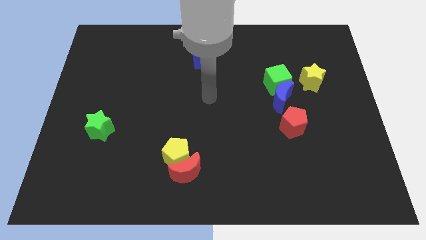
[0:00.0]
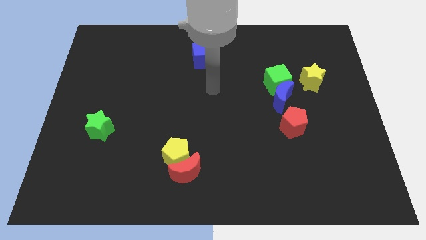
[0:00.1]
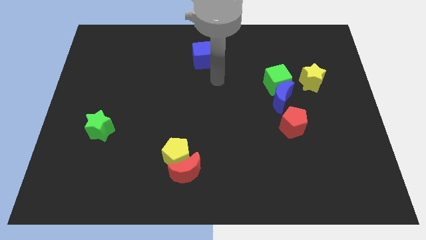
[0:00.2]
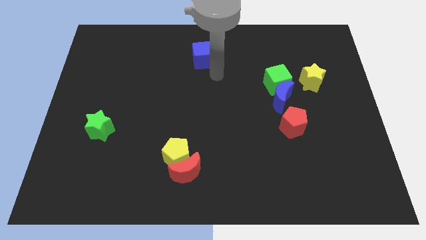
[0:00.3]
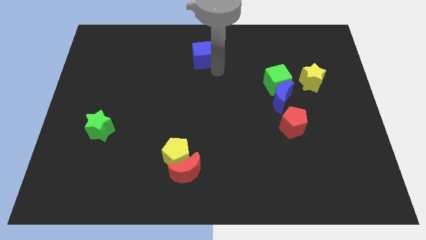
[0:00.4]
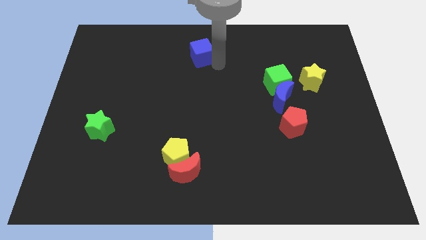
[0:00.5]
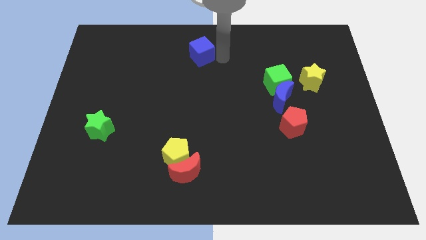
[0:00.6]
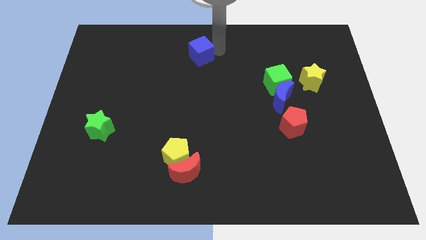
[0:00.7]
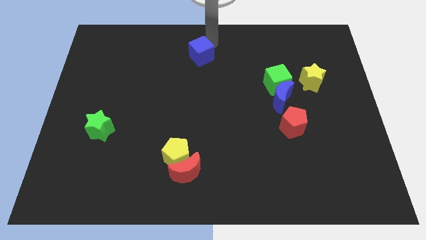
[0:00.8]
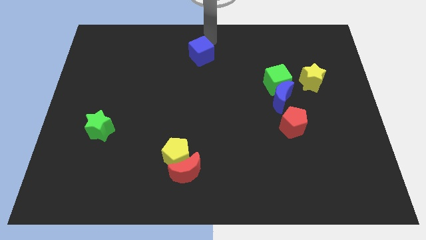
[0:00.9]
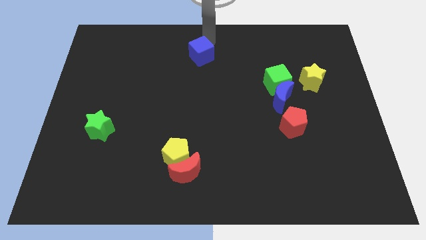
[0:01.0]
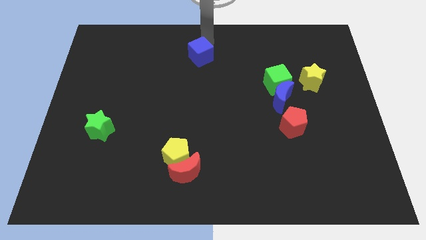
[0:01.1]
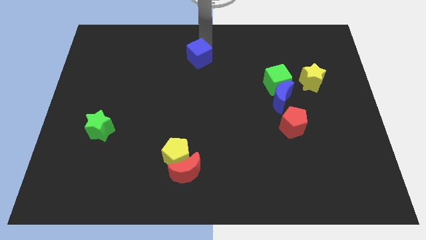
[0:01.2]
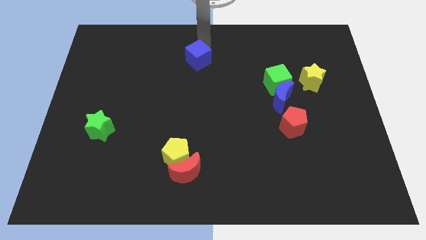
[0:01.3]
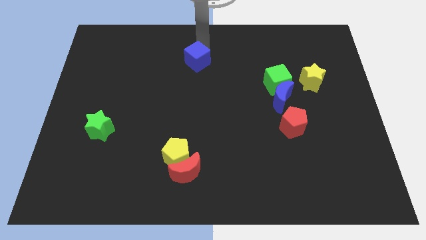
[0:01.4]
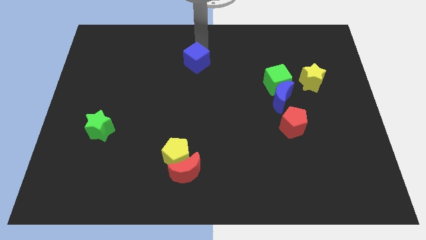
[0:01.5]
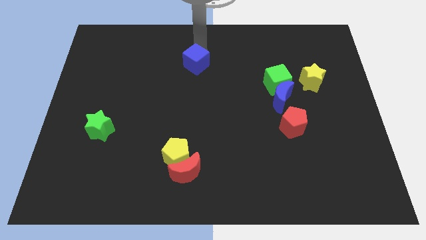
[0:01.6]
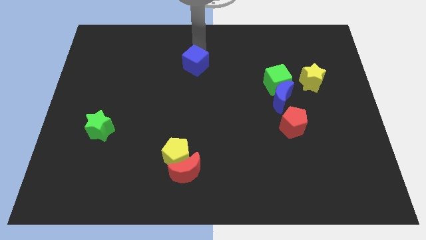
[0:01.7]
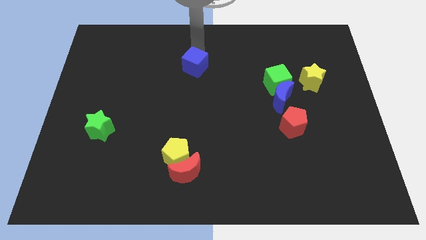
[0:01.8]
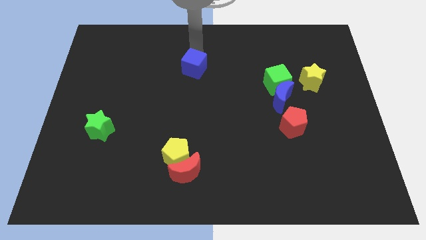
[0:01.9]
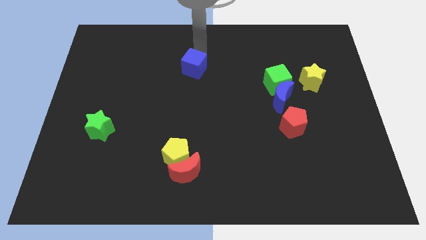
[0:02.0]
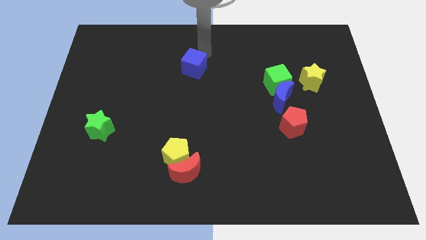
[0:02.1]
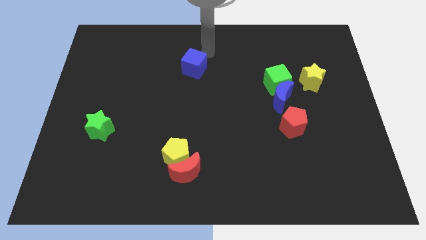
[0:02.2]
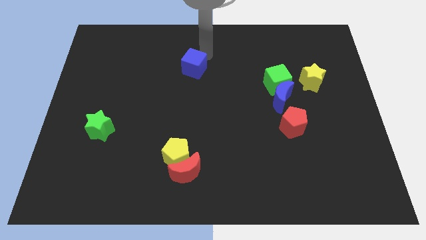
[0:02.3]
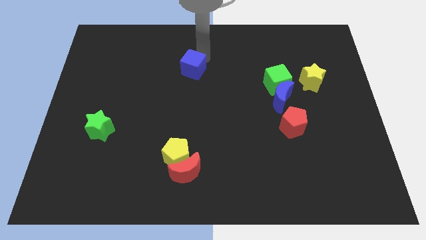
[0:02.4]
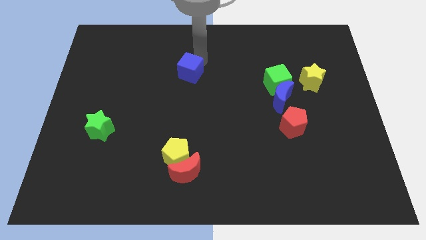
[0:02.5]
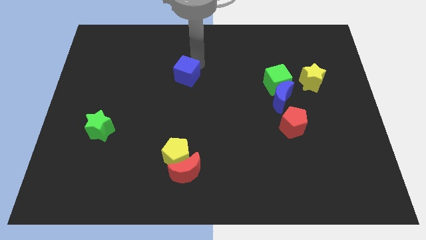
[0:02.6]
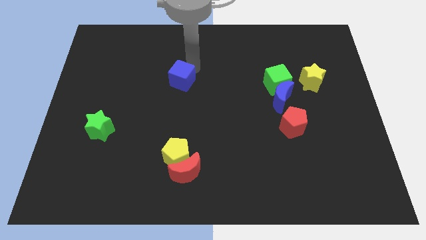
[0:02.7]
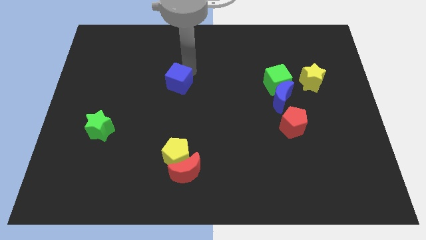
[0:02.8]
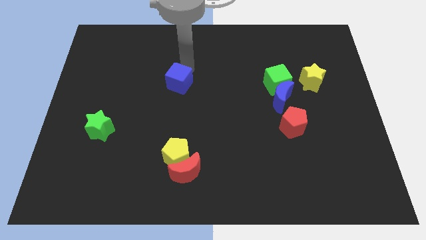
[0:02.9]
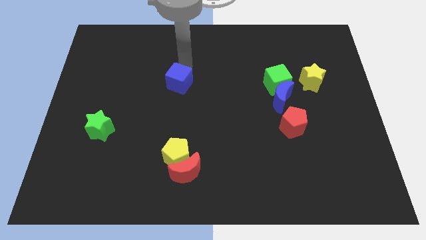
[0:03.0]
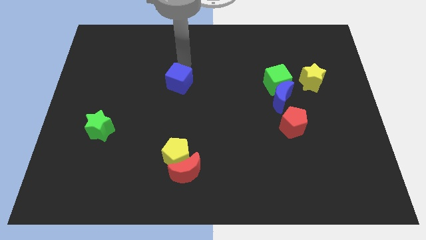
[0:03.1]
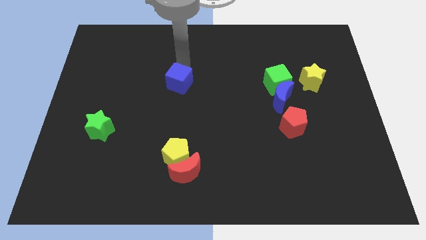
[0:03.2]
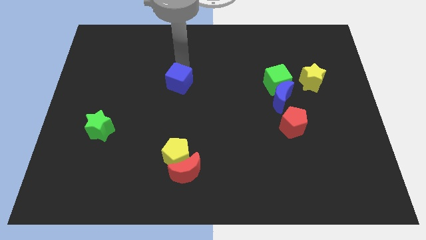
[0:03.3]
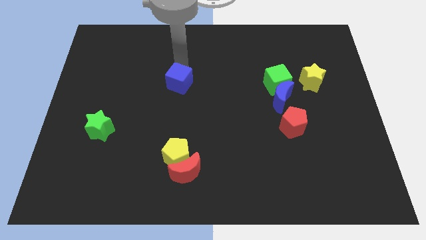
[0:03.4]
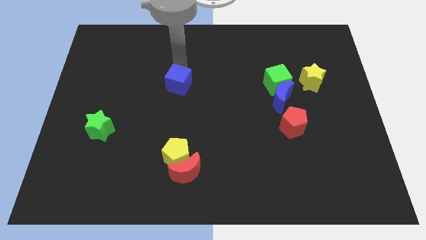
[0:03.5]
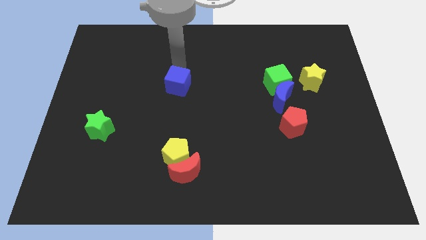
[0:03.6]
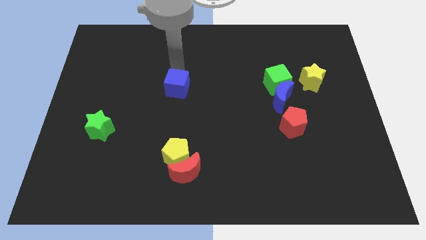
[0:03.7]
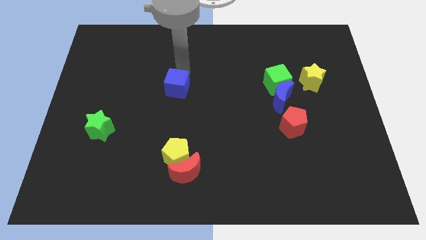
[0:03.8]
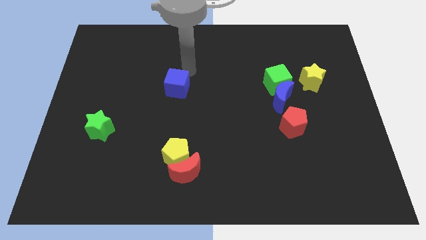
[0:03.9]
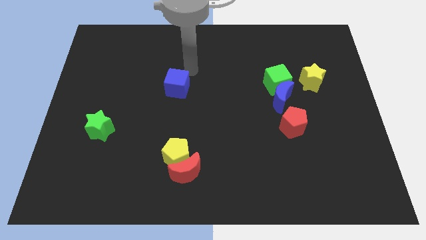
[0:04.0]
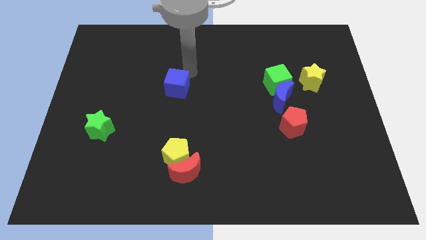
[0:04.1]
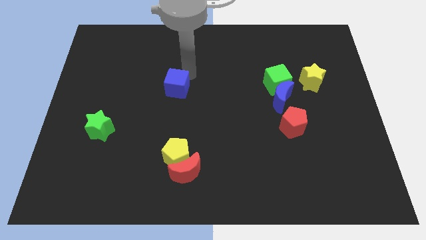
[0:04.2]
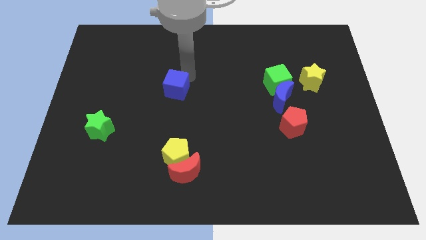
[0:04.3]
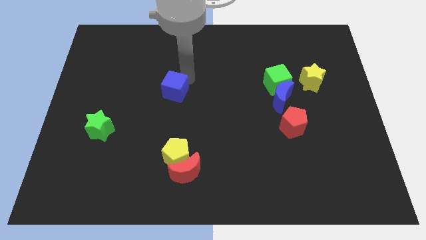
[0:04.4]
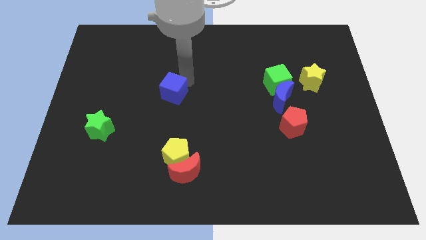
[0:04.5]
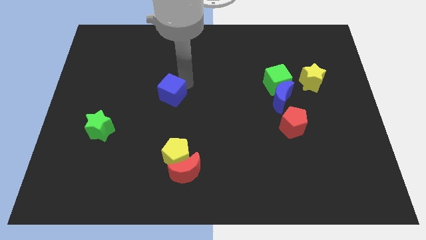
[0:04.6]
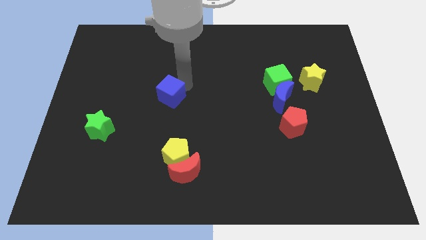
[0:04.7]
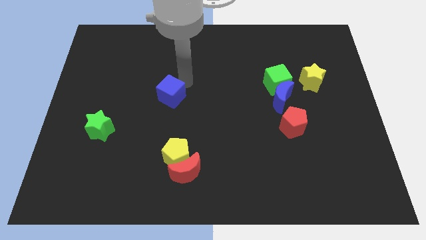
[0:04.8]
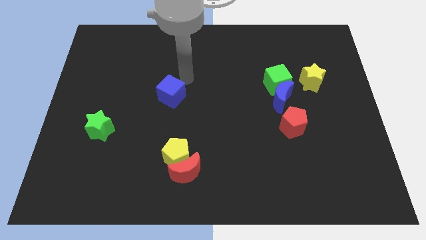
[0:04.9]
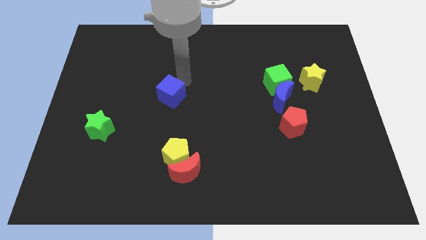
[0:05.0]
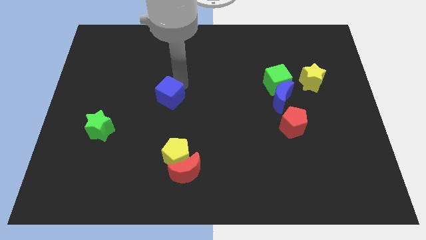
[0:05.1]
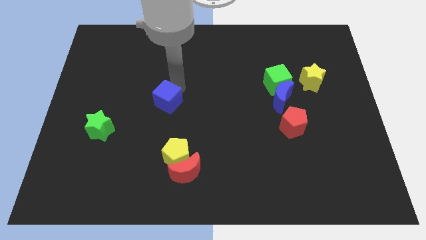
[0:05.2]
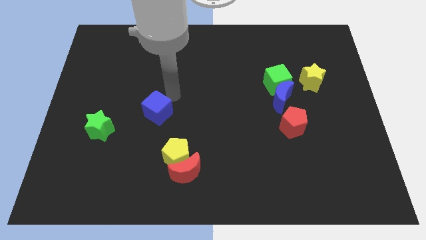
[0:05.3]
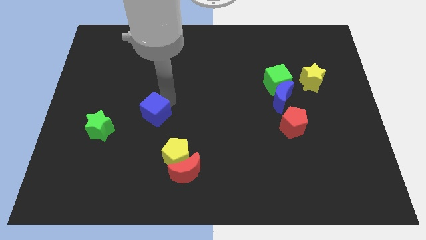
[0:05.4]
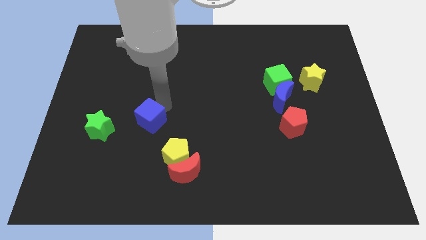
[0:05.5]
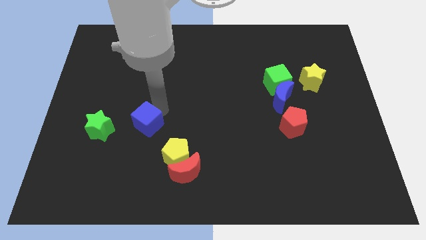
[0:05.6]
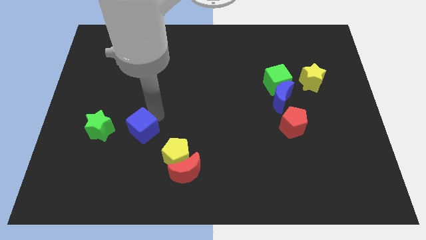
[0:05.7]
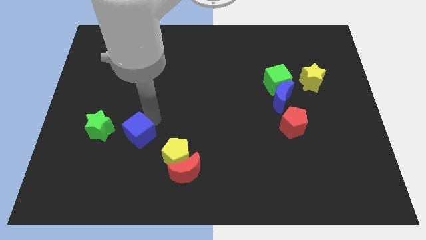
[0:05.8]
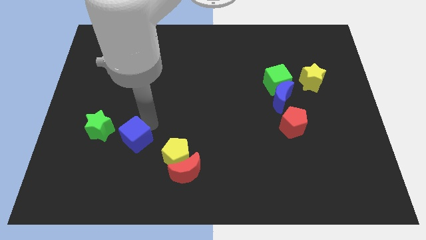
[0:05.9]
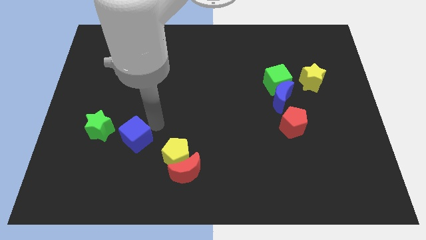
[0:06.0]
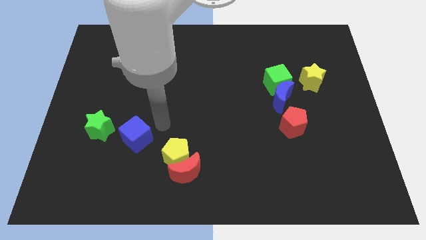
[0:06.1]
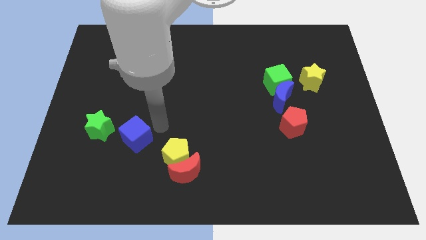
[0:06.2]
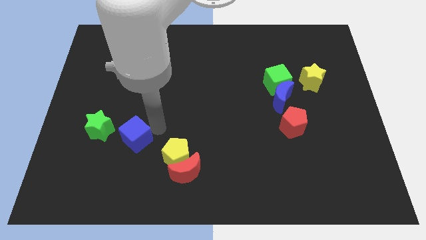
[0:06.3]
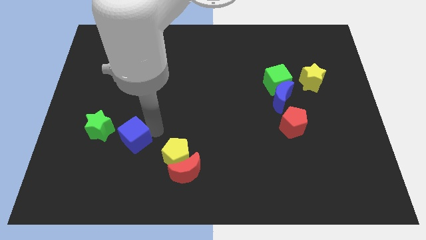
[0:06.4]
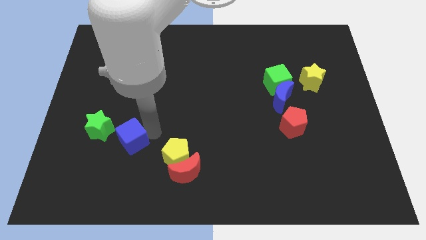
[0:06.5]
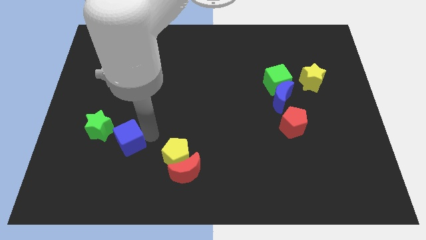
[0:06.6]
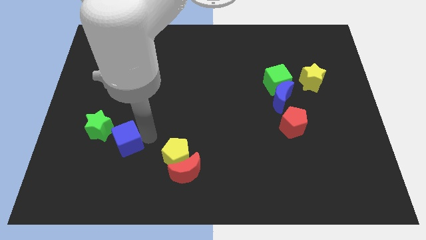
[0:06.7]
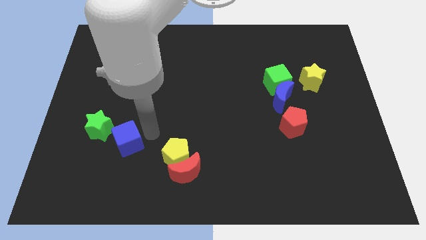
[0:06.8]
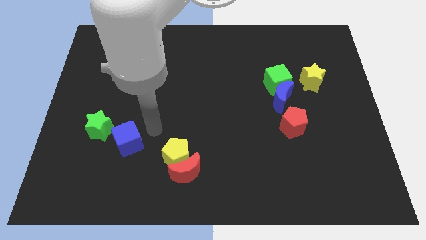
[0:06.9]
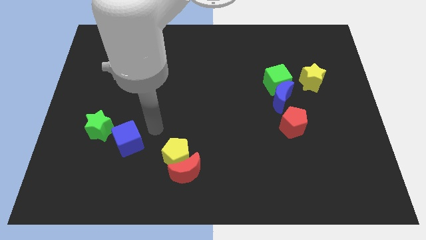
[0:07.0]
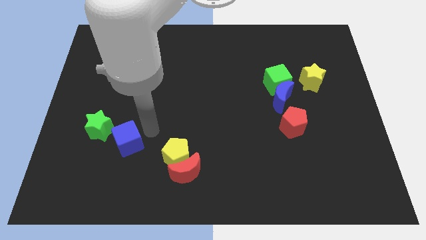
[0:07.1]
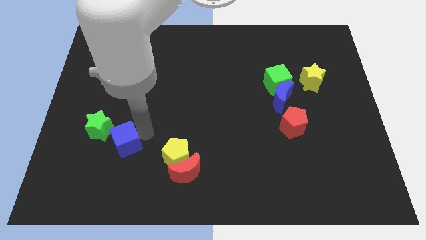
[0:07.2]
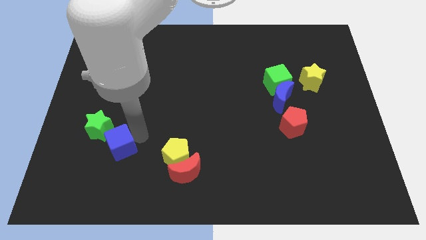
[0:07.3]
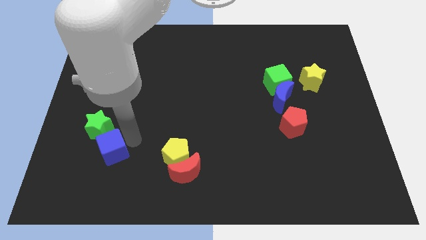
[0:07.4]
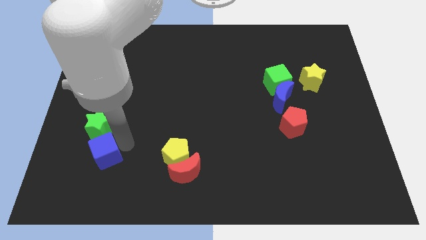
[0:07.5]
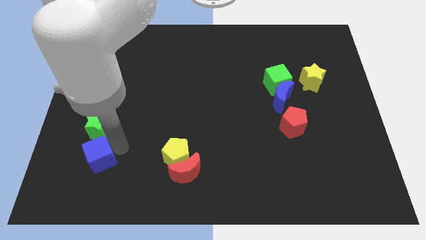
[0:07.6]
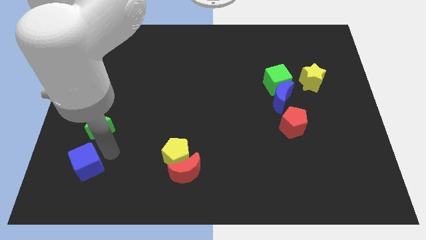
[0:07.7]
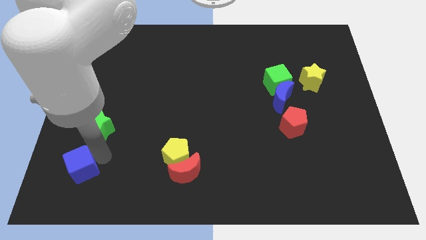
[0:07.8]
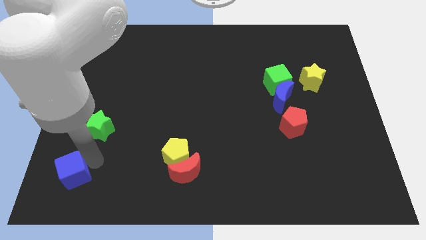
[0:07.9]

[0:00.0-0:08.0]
slide the blue cube to the lower left corner
